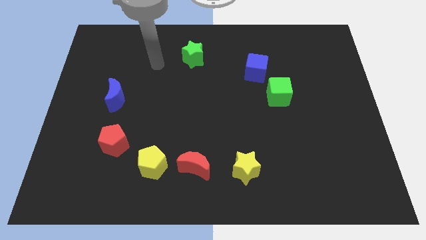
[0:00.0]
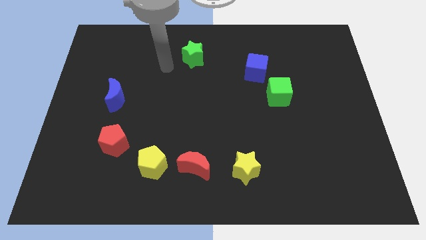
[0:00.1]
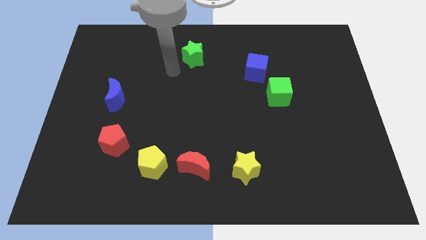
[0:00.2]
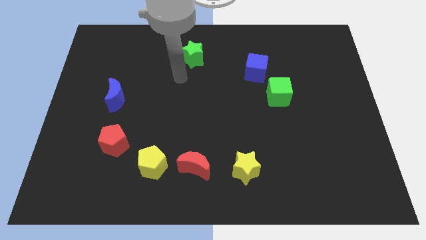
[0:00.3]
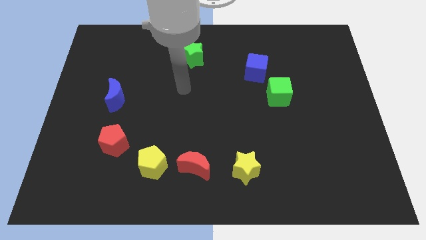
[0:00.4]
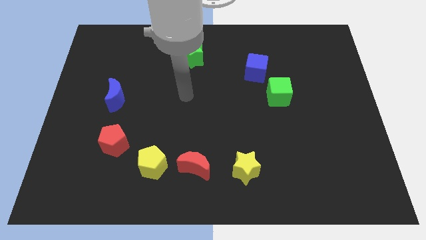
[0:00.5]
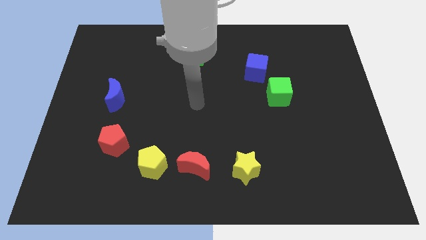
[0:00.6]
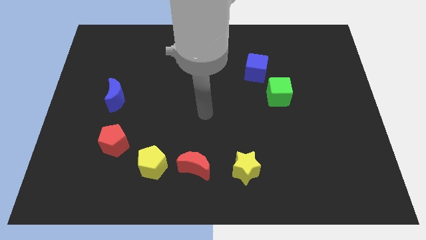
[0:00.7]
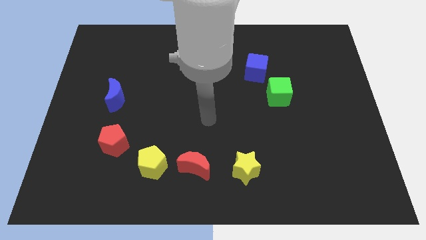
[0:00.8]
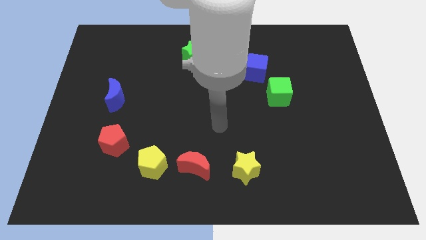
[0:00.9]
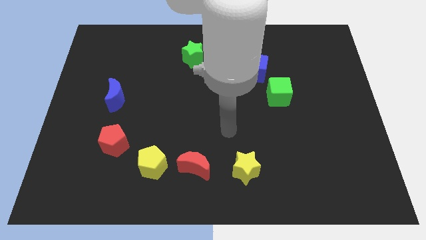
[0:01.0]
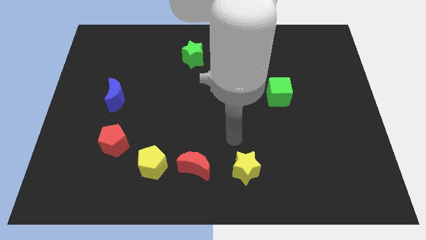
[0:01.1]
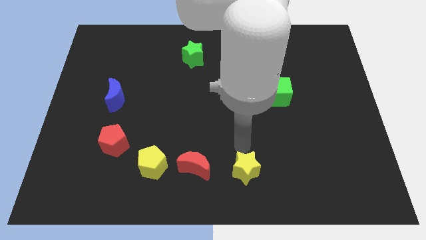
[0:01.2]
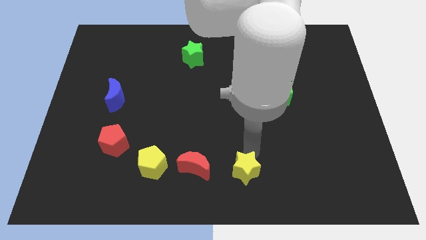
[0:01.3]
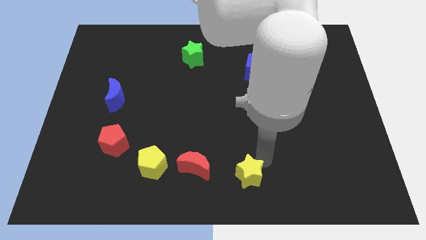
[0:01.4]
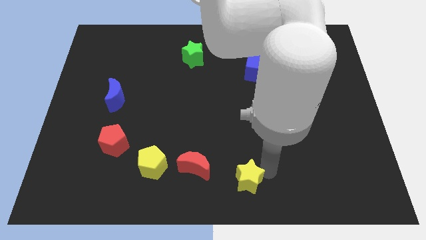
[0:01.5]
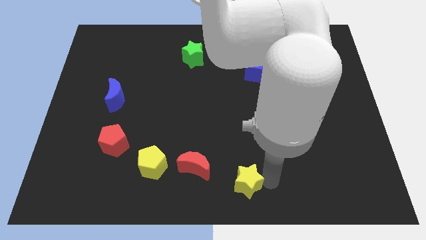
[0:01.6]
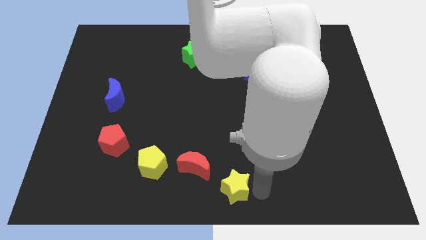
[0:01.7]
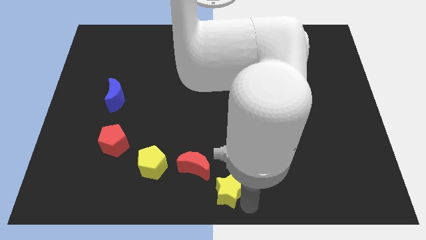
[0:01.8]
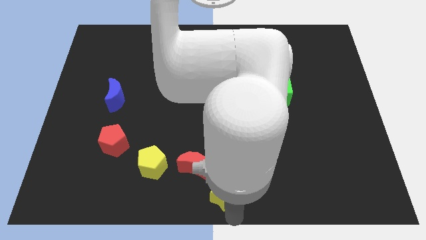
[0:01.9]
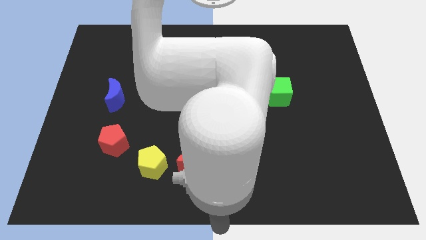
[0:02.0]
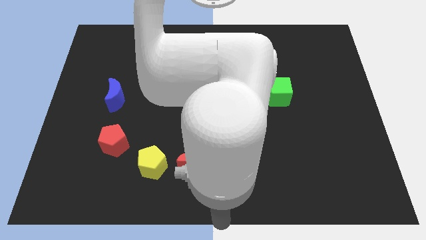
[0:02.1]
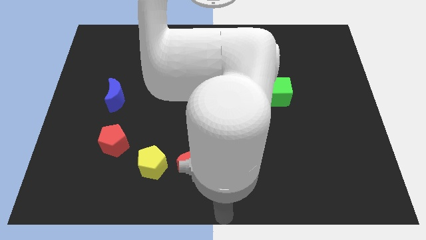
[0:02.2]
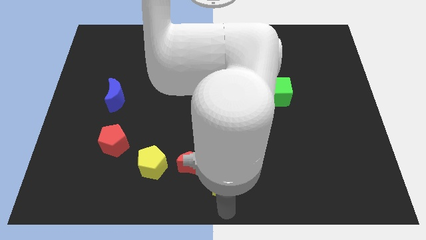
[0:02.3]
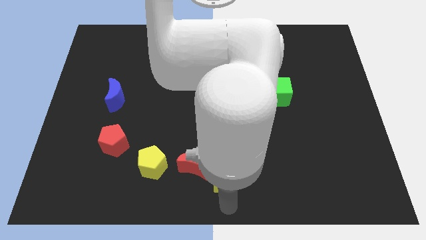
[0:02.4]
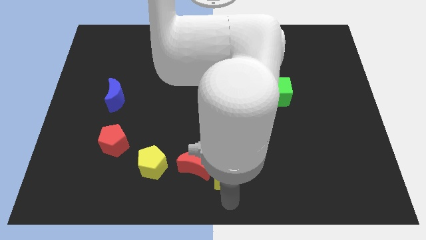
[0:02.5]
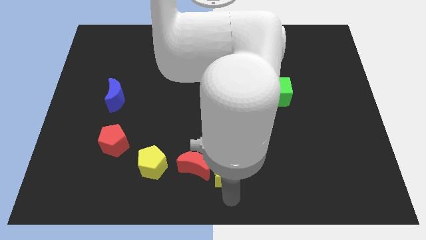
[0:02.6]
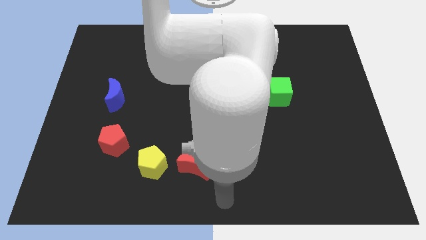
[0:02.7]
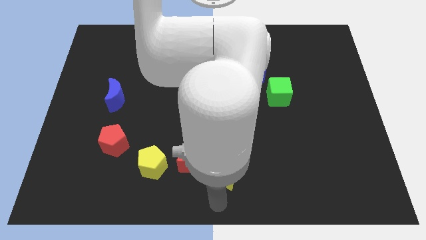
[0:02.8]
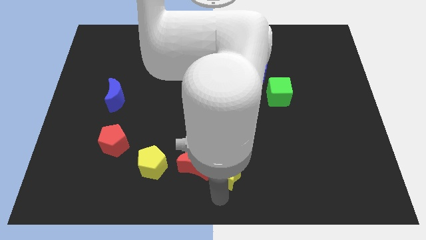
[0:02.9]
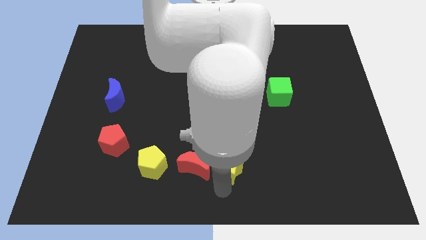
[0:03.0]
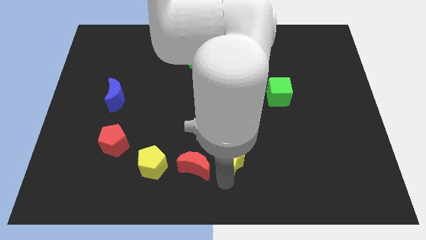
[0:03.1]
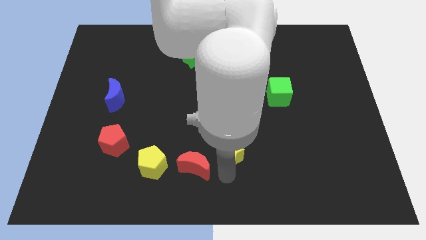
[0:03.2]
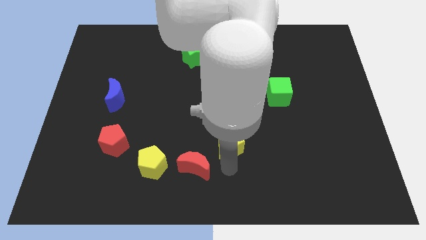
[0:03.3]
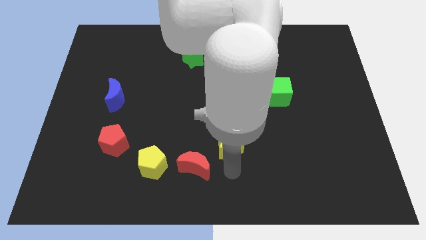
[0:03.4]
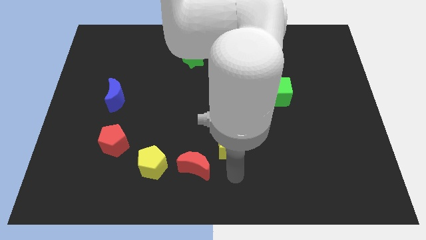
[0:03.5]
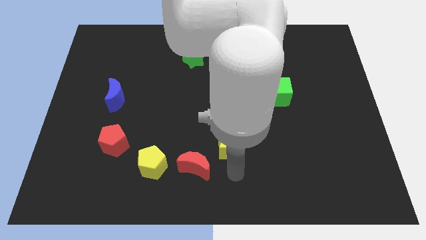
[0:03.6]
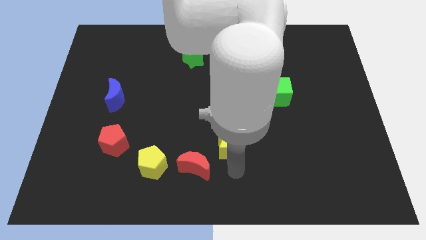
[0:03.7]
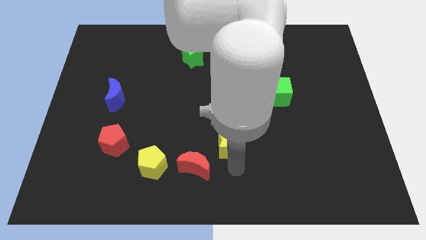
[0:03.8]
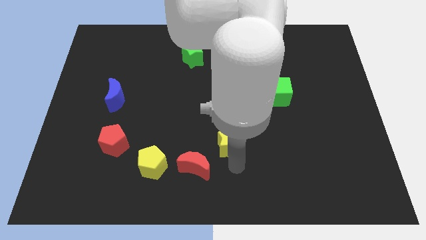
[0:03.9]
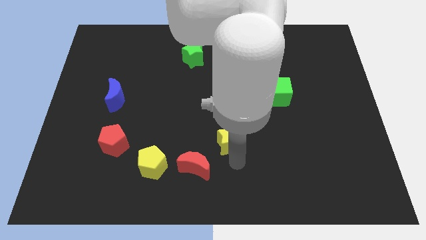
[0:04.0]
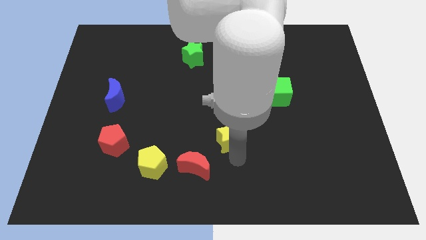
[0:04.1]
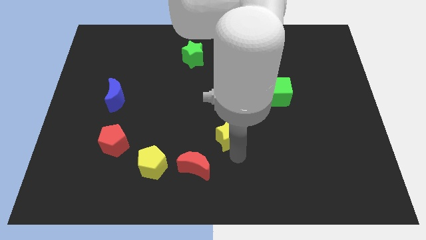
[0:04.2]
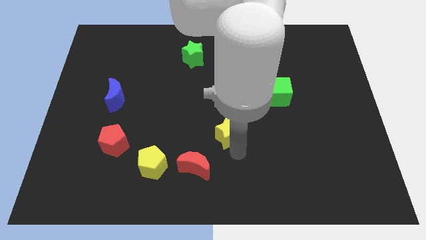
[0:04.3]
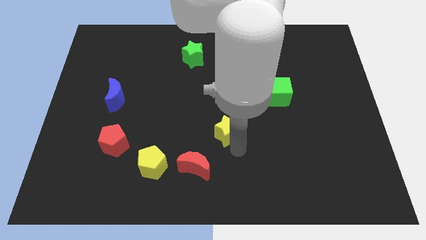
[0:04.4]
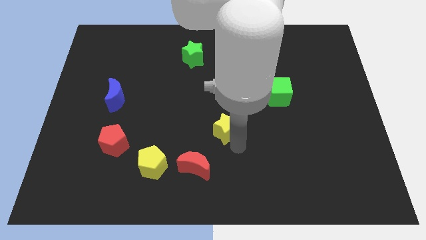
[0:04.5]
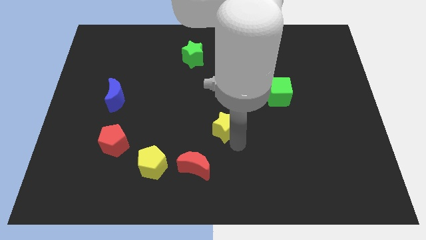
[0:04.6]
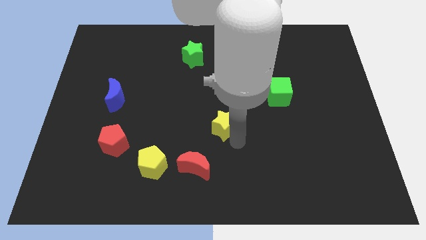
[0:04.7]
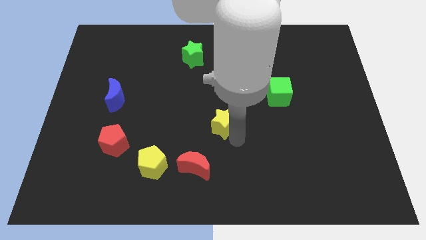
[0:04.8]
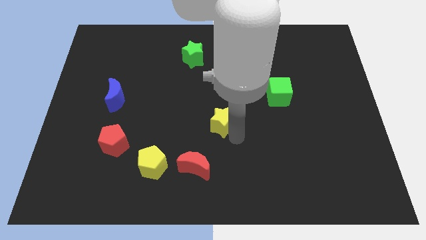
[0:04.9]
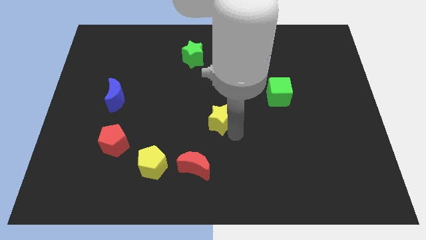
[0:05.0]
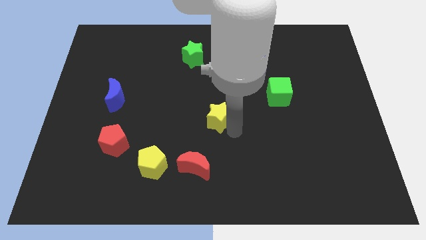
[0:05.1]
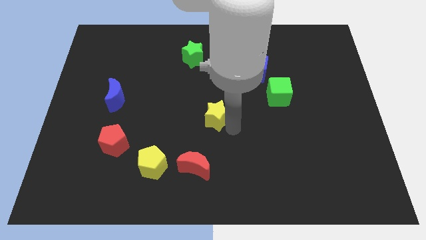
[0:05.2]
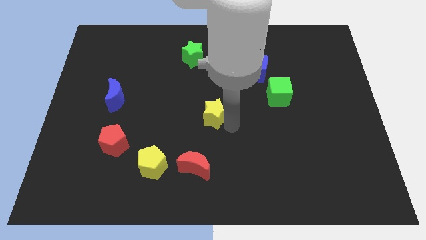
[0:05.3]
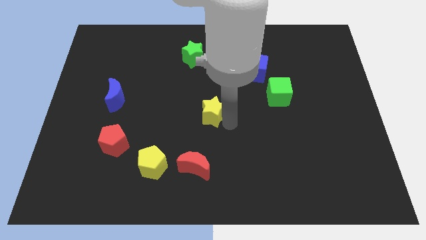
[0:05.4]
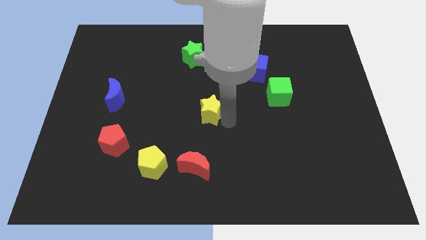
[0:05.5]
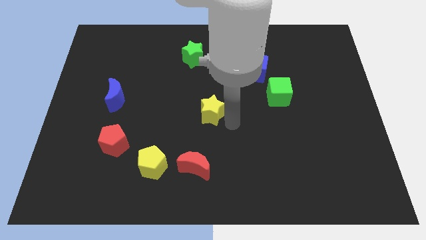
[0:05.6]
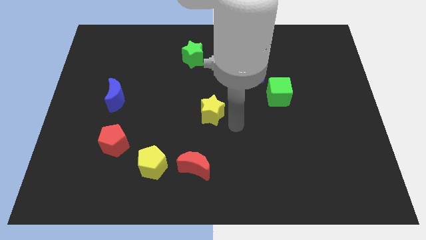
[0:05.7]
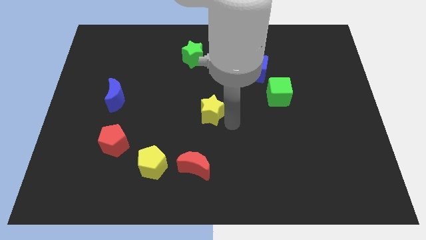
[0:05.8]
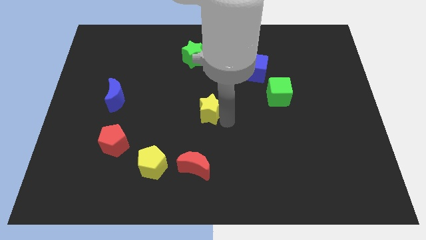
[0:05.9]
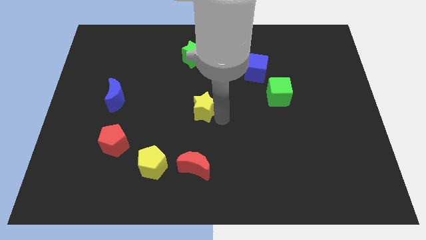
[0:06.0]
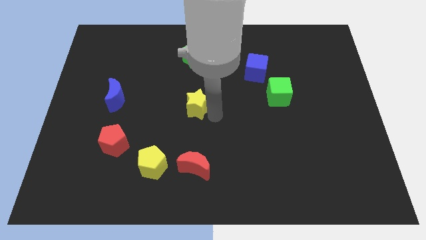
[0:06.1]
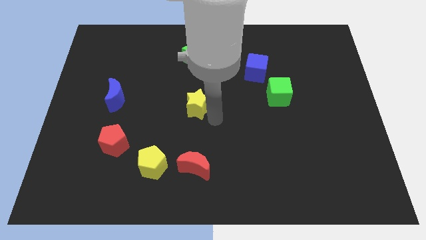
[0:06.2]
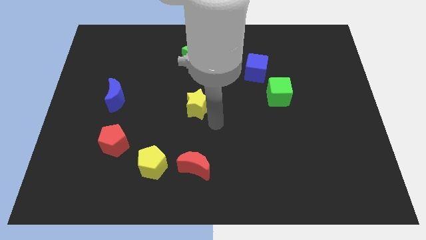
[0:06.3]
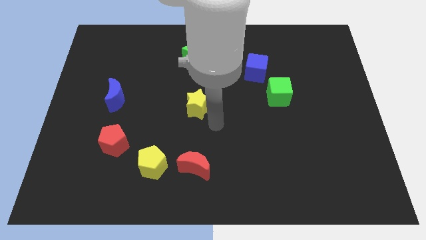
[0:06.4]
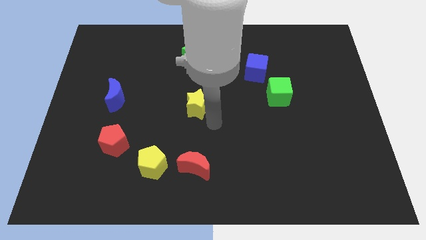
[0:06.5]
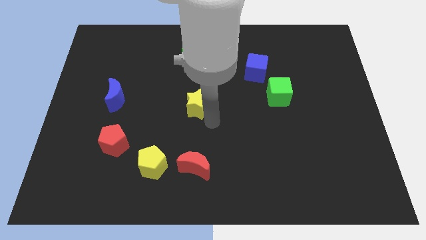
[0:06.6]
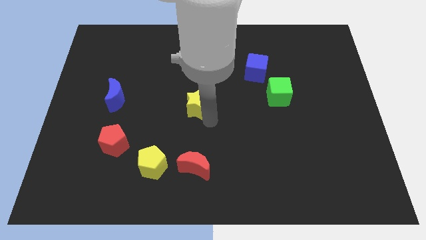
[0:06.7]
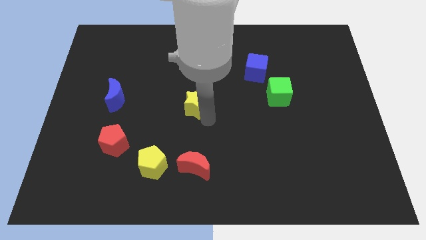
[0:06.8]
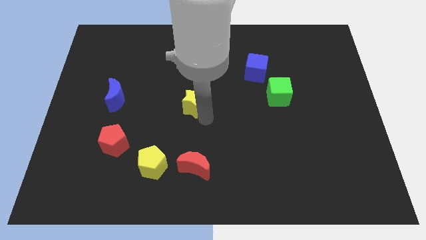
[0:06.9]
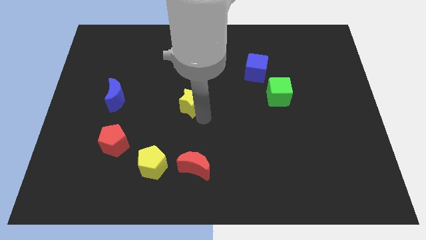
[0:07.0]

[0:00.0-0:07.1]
move the yellow star diagonally up and left

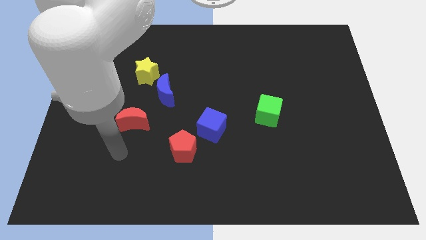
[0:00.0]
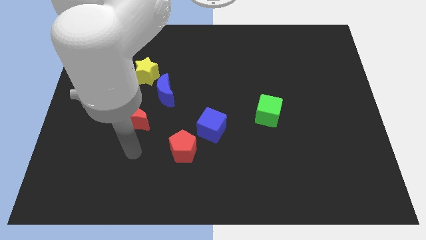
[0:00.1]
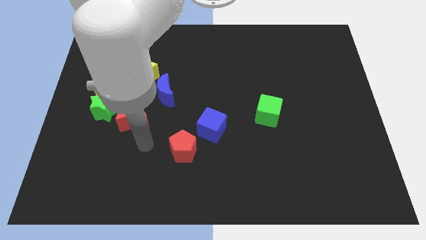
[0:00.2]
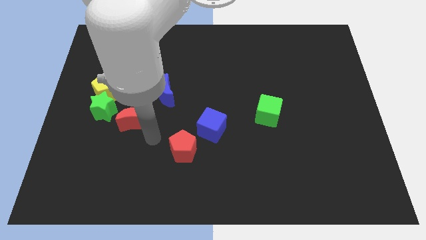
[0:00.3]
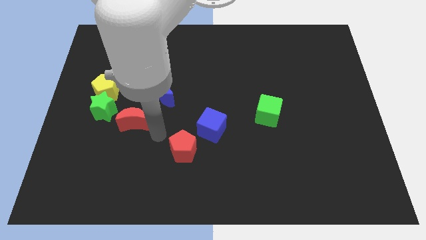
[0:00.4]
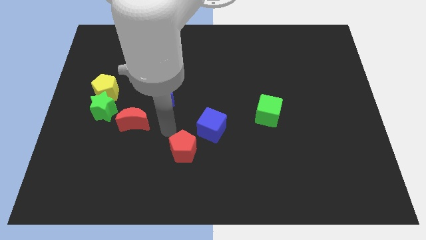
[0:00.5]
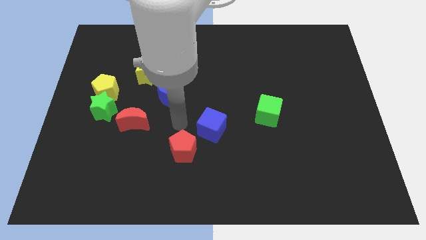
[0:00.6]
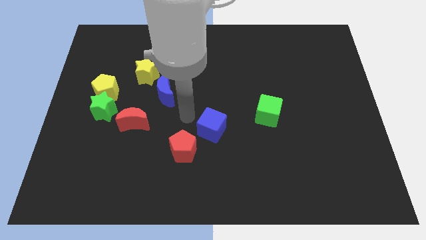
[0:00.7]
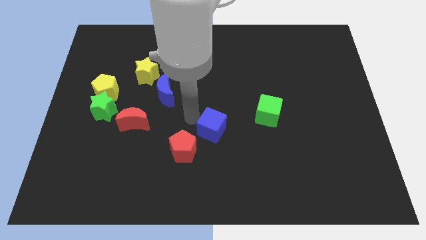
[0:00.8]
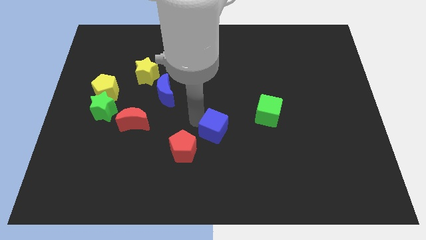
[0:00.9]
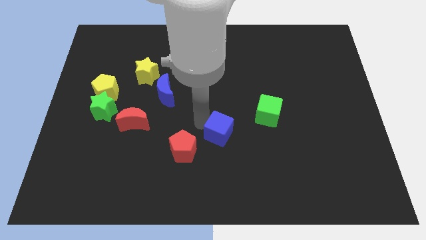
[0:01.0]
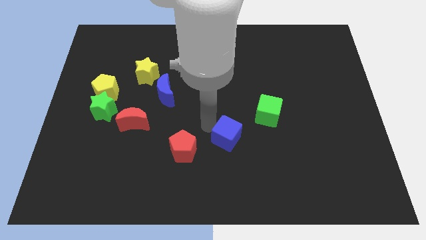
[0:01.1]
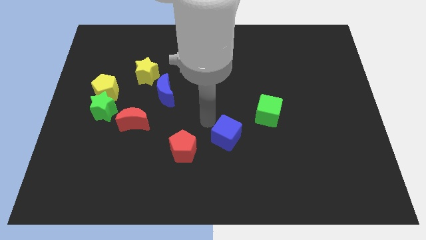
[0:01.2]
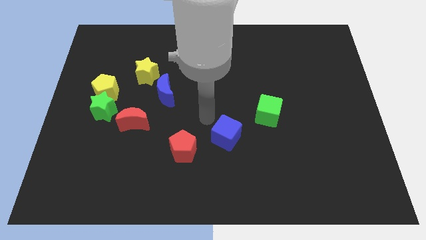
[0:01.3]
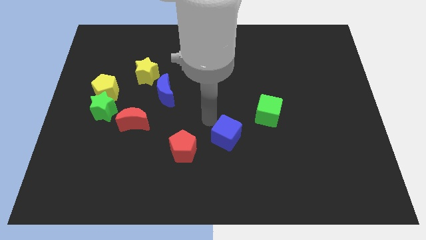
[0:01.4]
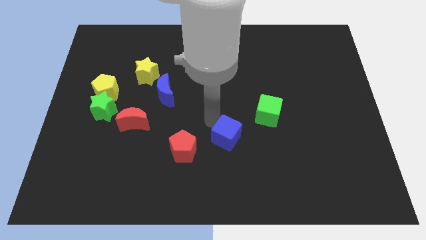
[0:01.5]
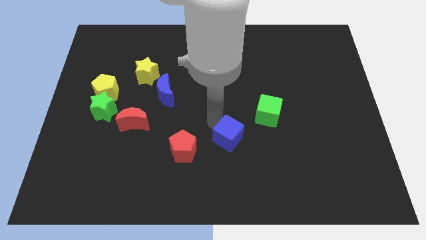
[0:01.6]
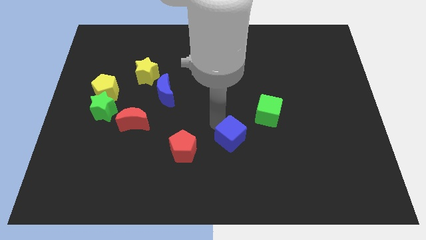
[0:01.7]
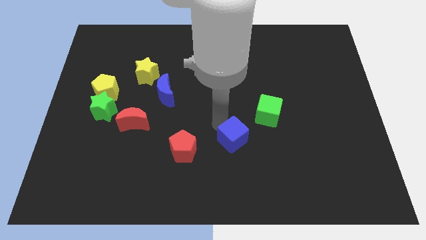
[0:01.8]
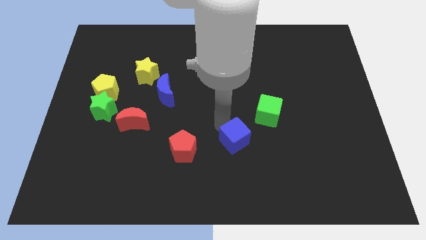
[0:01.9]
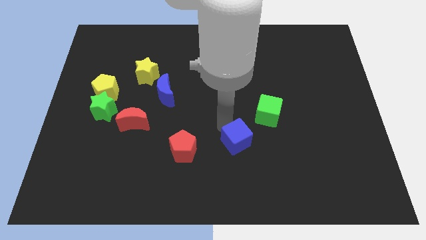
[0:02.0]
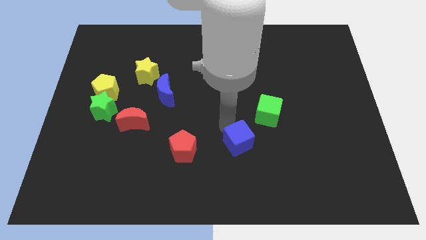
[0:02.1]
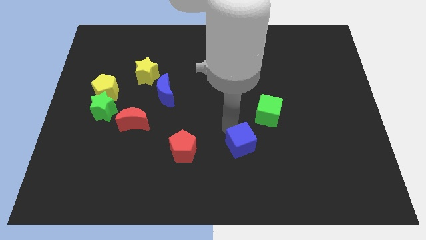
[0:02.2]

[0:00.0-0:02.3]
slightly slide the blue cube diagonally downwards and right
